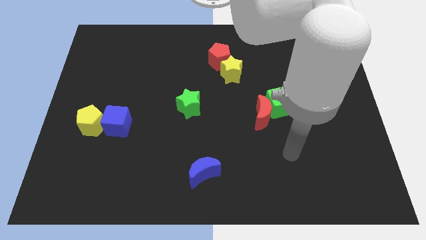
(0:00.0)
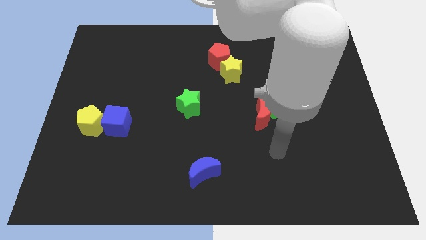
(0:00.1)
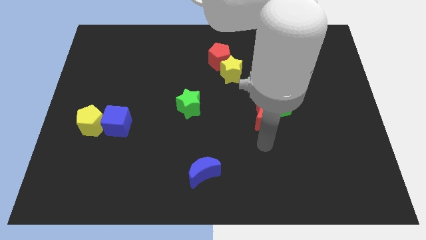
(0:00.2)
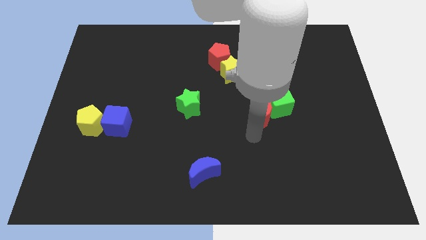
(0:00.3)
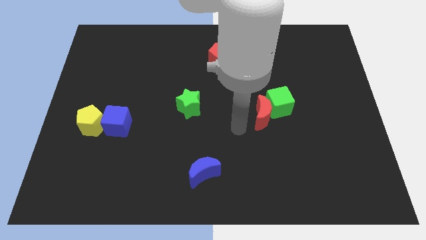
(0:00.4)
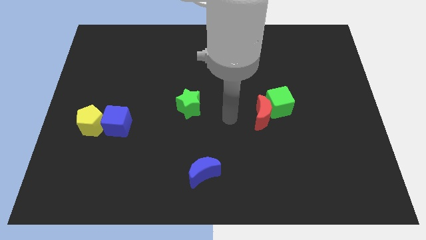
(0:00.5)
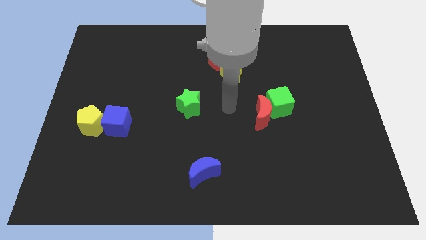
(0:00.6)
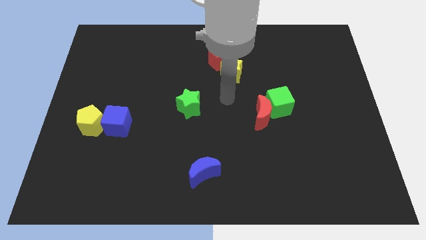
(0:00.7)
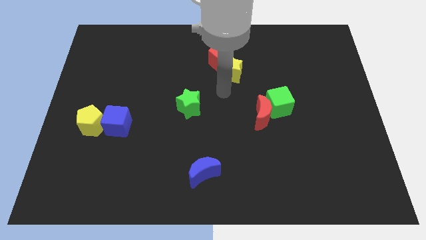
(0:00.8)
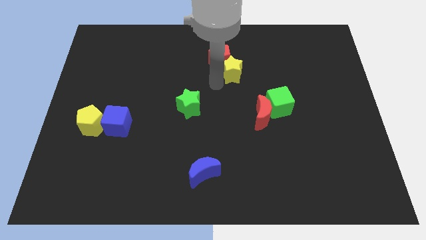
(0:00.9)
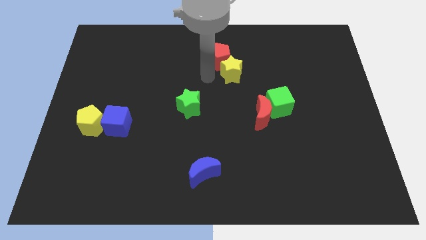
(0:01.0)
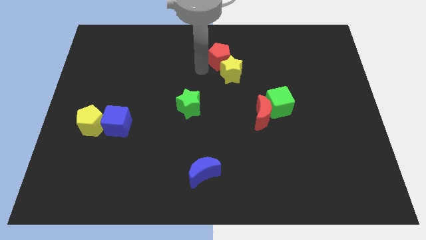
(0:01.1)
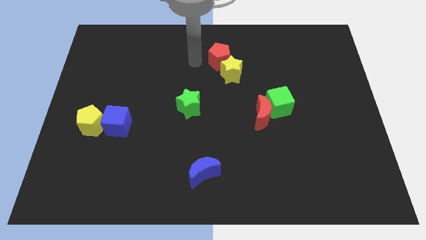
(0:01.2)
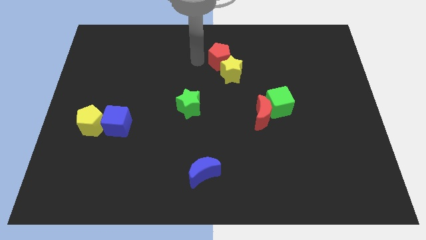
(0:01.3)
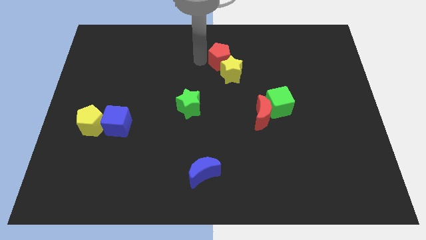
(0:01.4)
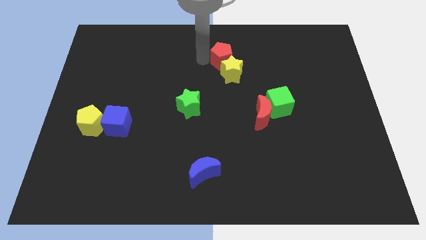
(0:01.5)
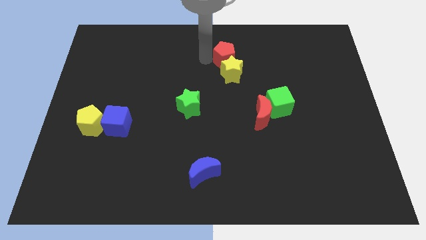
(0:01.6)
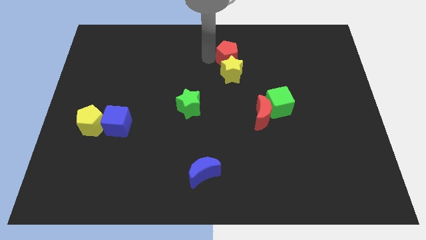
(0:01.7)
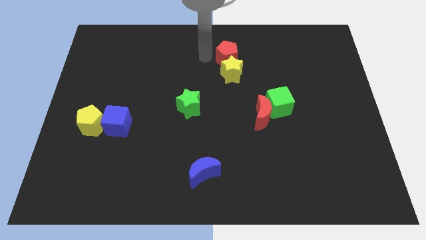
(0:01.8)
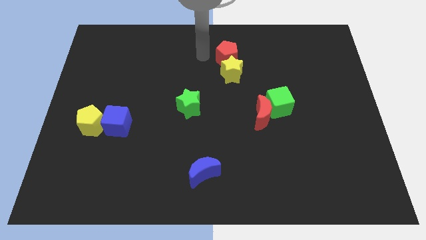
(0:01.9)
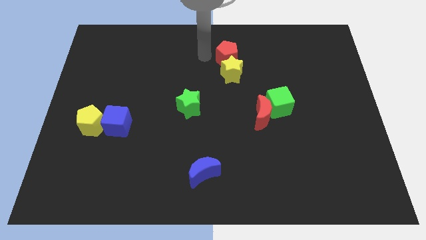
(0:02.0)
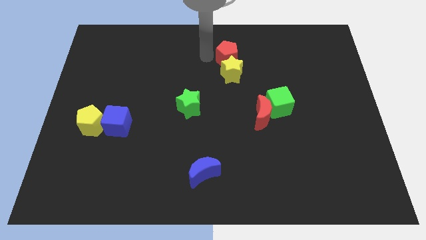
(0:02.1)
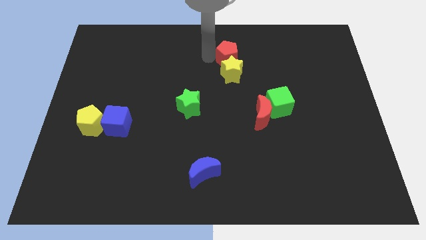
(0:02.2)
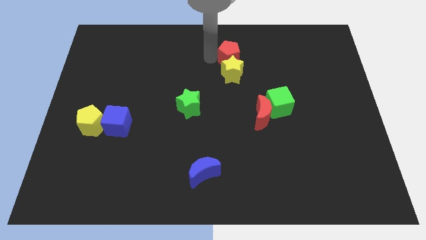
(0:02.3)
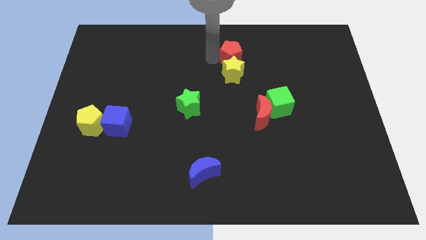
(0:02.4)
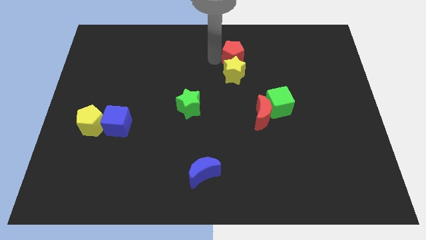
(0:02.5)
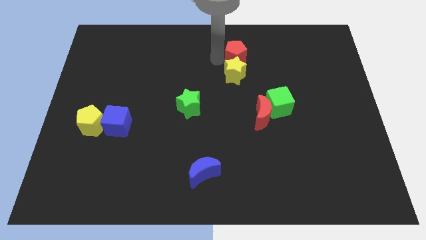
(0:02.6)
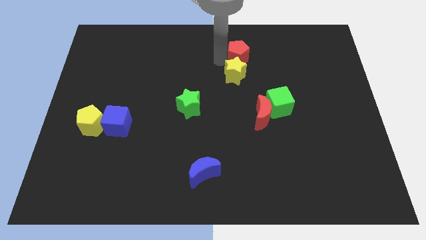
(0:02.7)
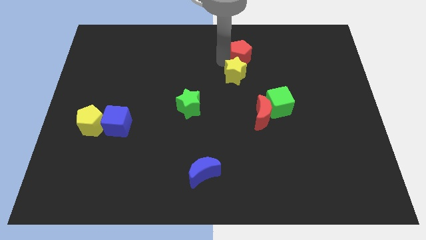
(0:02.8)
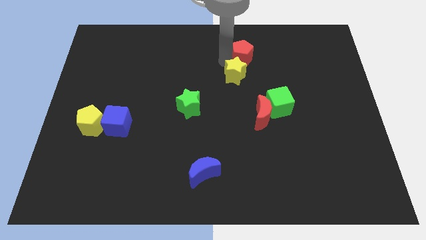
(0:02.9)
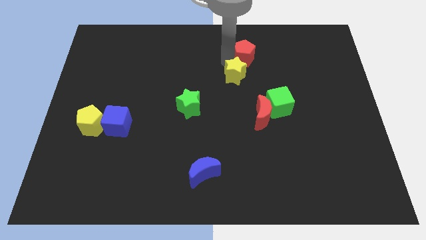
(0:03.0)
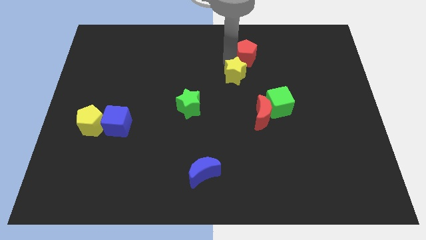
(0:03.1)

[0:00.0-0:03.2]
slide the red pentagon somewhat right

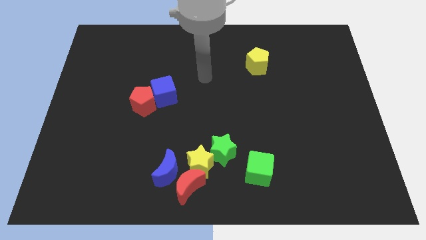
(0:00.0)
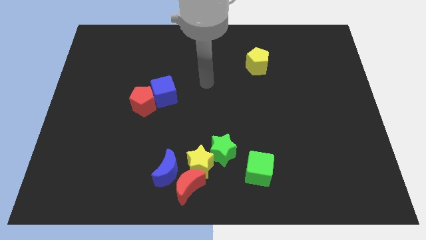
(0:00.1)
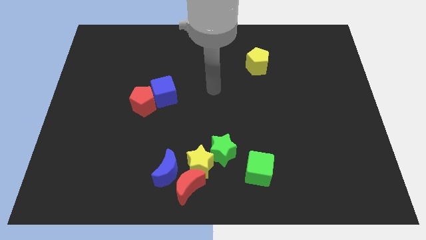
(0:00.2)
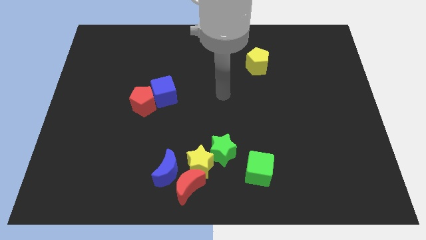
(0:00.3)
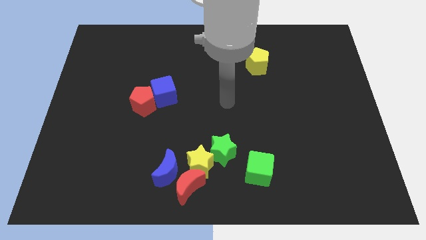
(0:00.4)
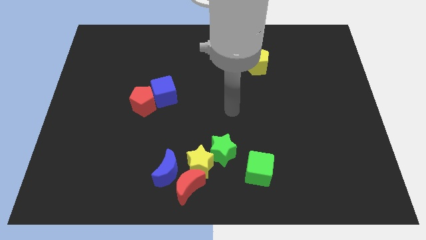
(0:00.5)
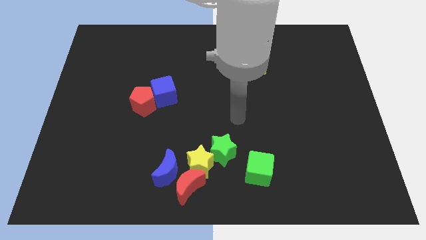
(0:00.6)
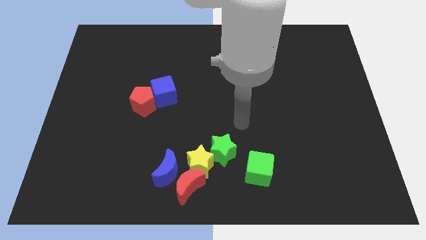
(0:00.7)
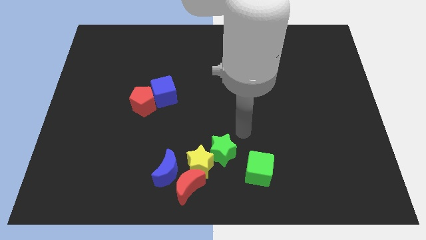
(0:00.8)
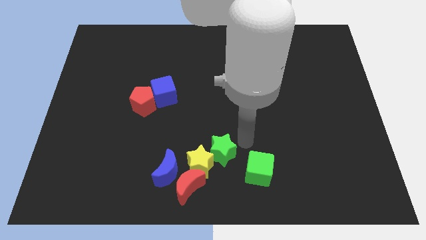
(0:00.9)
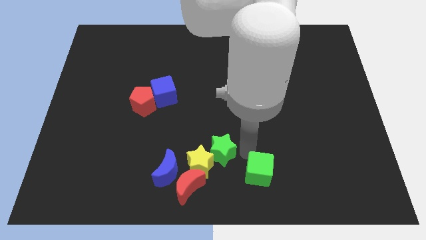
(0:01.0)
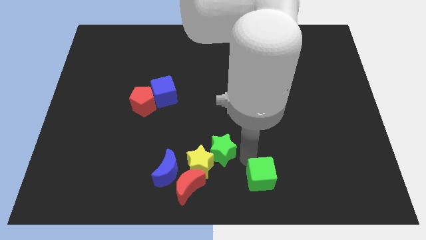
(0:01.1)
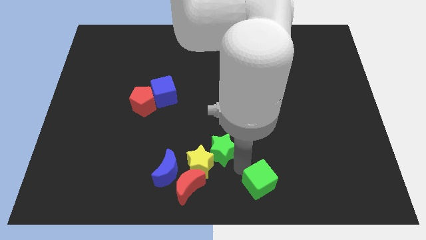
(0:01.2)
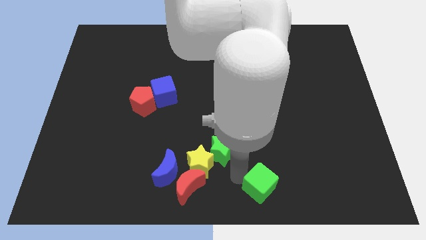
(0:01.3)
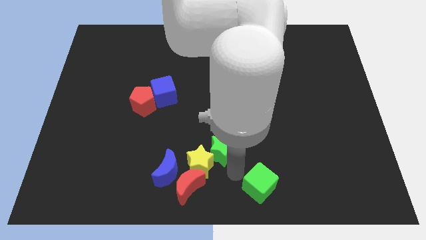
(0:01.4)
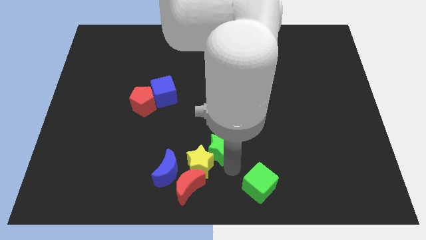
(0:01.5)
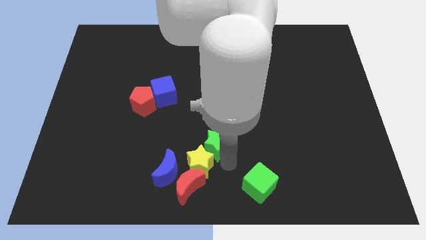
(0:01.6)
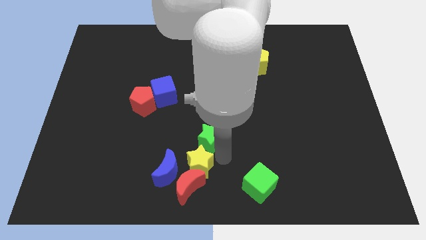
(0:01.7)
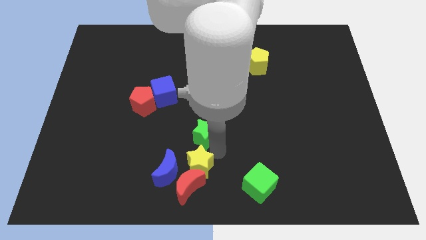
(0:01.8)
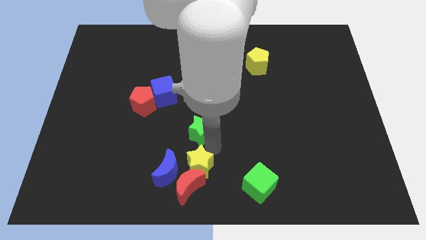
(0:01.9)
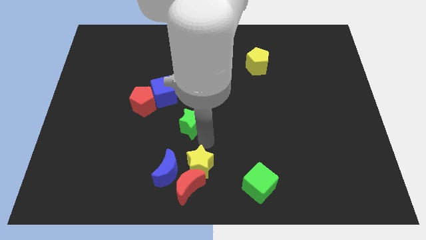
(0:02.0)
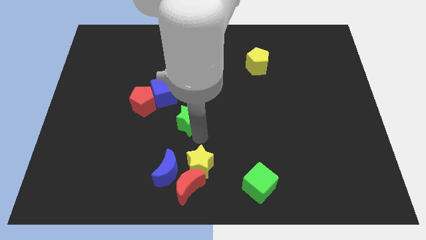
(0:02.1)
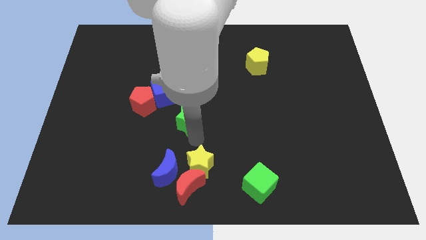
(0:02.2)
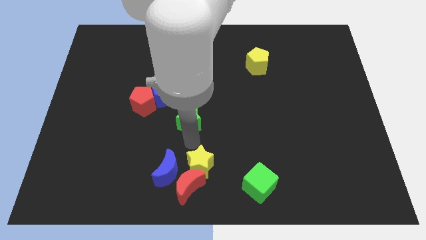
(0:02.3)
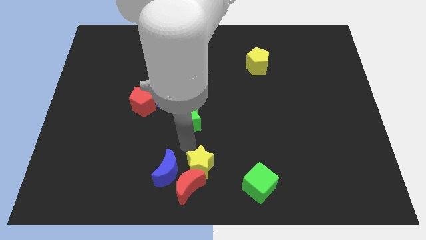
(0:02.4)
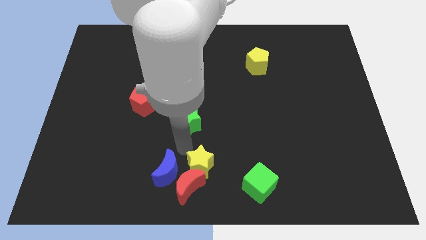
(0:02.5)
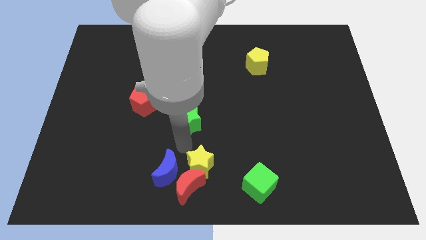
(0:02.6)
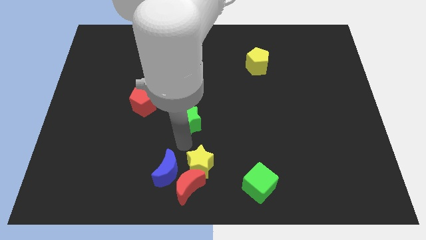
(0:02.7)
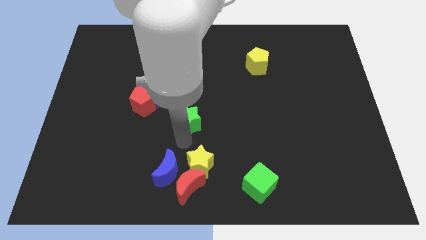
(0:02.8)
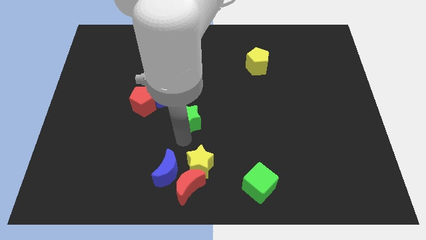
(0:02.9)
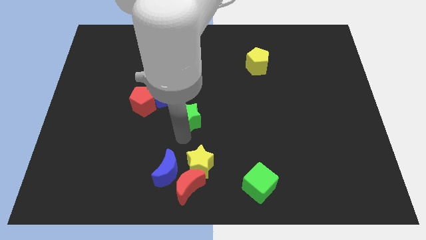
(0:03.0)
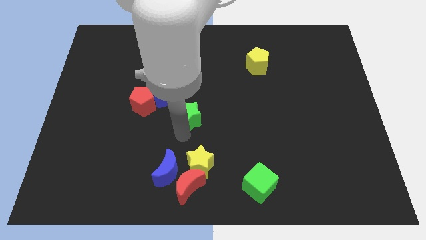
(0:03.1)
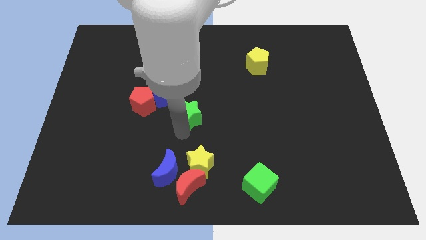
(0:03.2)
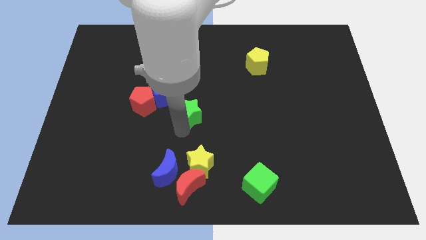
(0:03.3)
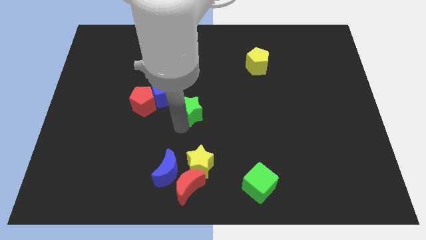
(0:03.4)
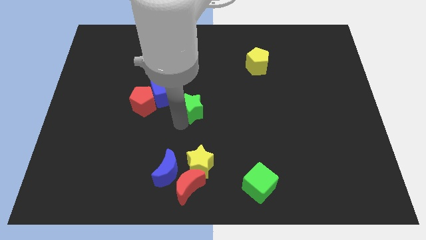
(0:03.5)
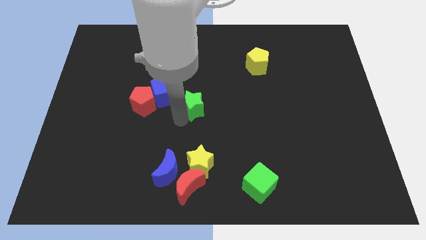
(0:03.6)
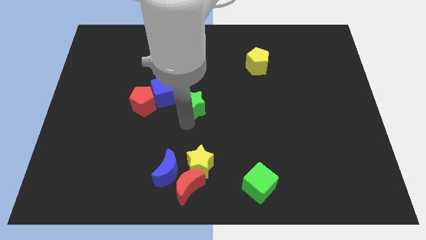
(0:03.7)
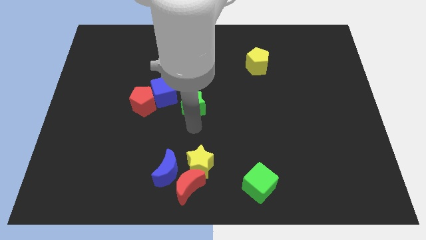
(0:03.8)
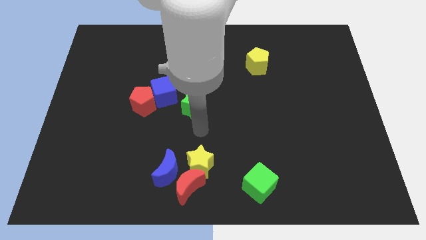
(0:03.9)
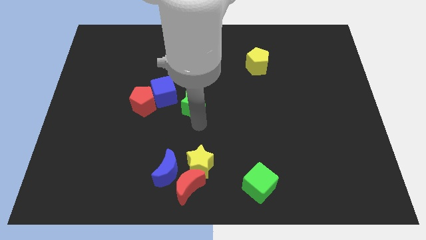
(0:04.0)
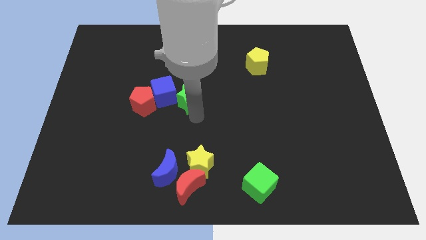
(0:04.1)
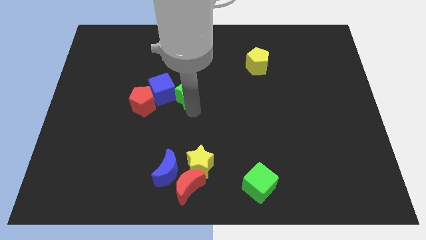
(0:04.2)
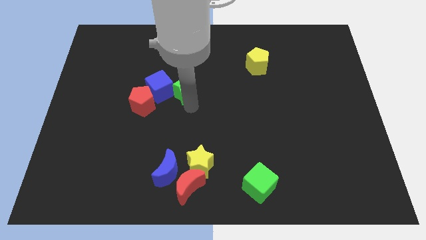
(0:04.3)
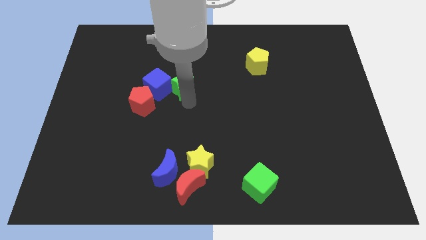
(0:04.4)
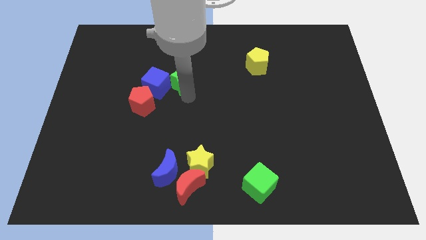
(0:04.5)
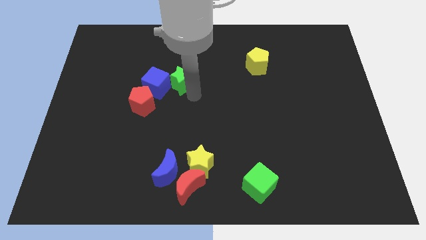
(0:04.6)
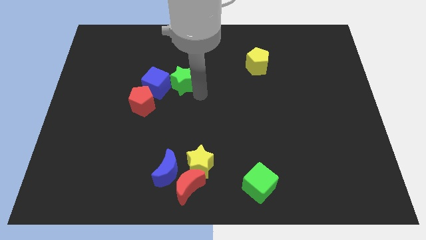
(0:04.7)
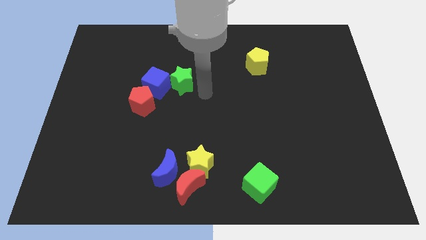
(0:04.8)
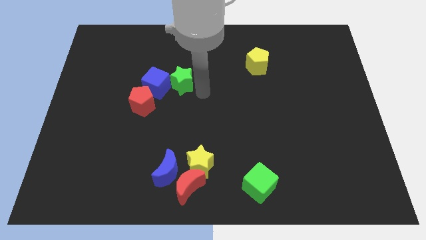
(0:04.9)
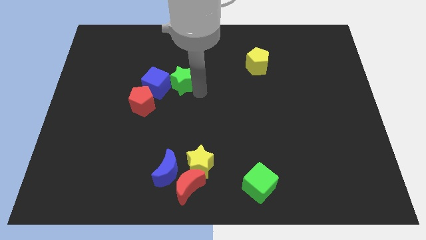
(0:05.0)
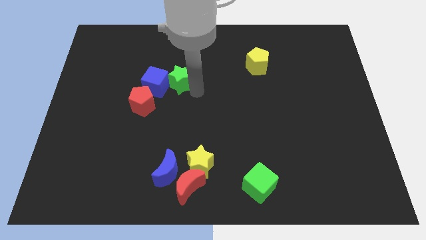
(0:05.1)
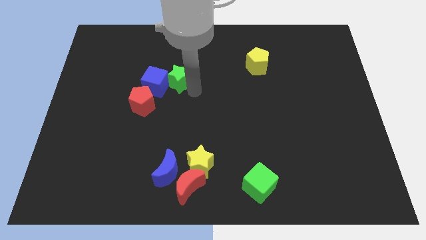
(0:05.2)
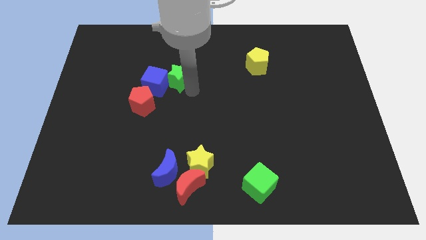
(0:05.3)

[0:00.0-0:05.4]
move the green star upwards and to the left
